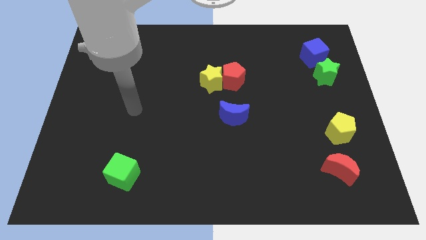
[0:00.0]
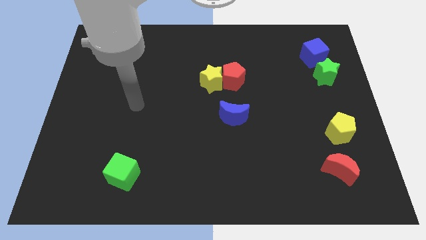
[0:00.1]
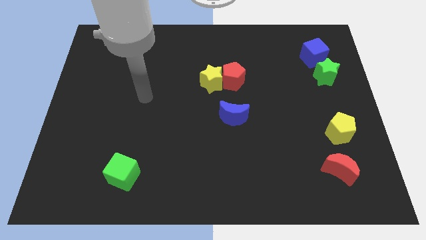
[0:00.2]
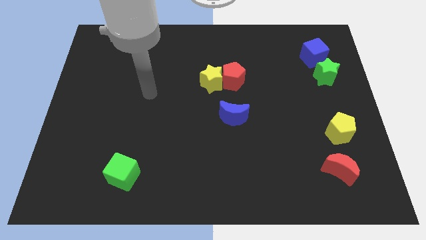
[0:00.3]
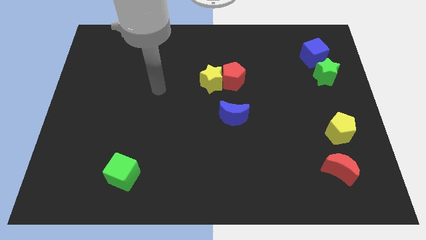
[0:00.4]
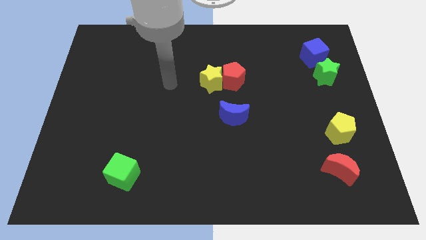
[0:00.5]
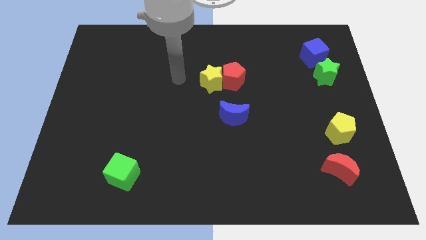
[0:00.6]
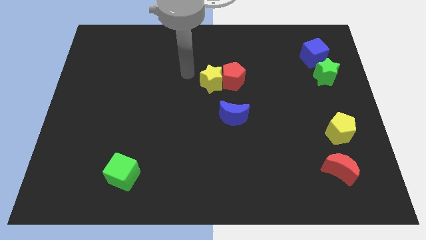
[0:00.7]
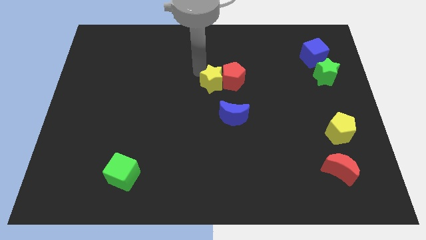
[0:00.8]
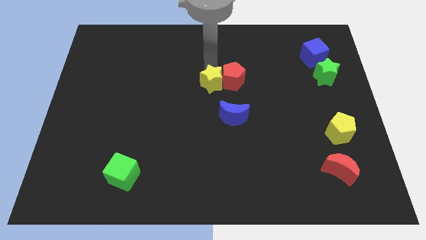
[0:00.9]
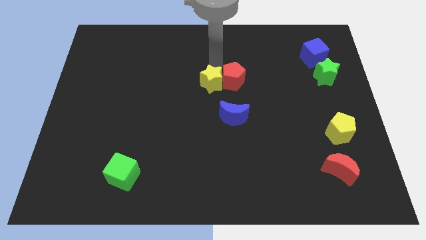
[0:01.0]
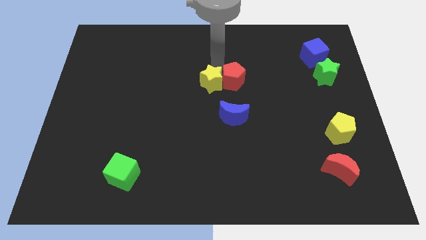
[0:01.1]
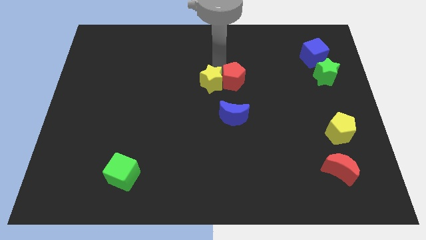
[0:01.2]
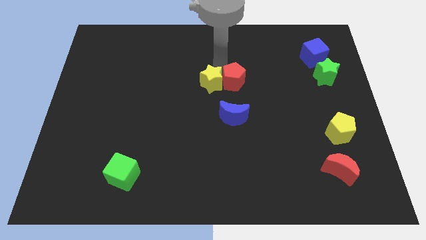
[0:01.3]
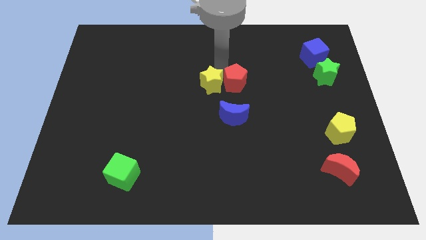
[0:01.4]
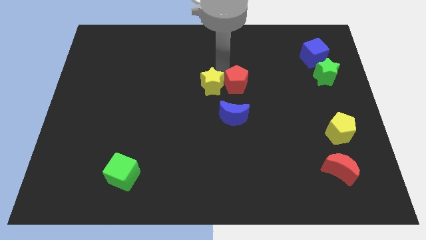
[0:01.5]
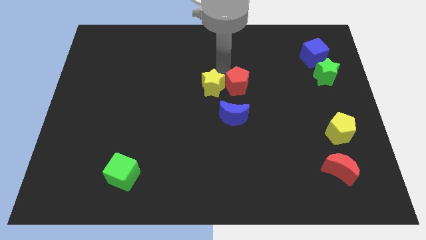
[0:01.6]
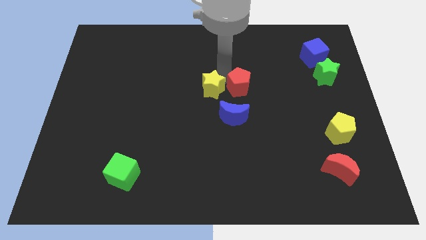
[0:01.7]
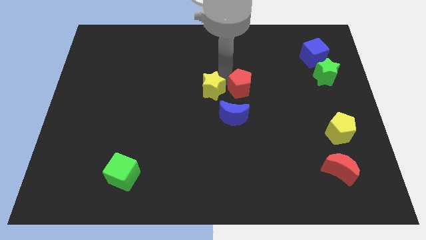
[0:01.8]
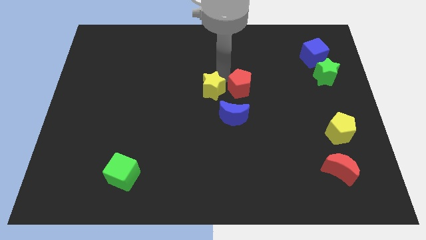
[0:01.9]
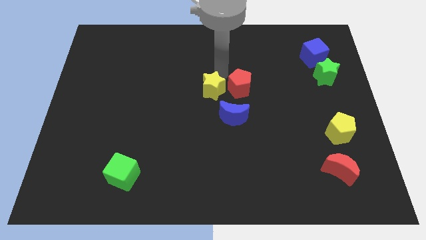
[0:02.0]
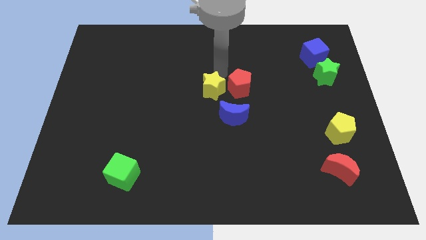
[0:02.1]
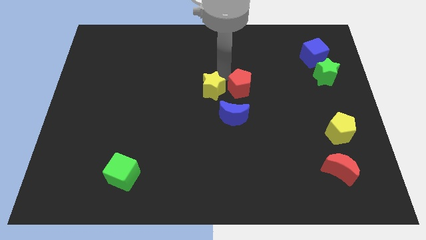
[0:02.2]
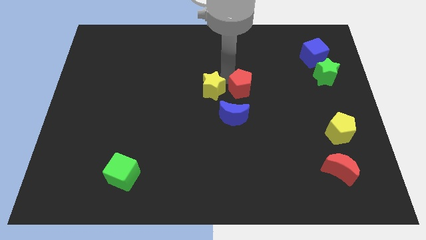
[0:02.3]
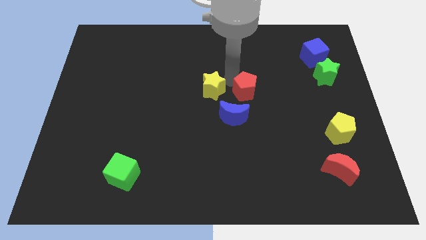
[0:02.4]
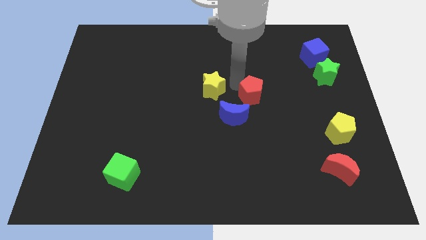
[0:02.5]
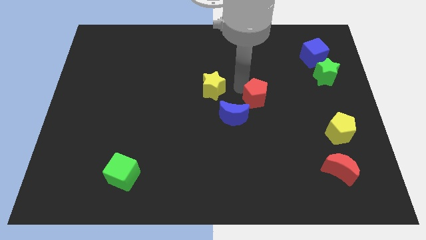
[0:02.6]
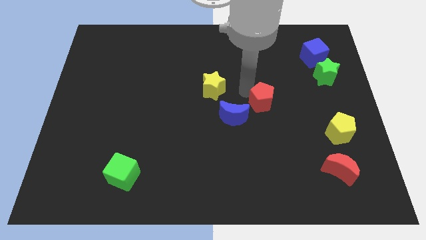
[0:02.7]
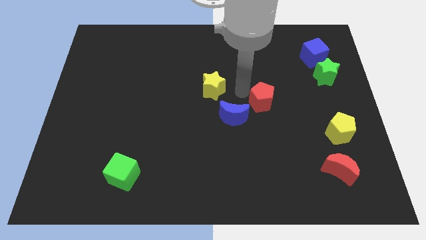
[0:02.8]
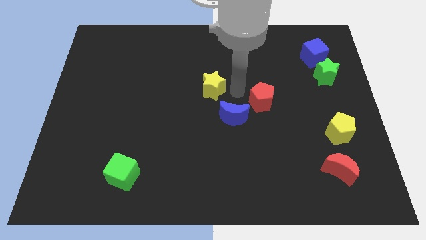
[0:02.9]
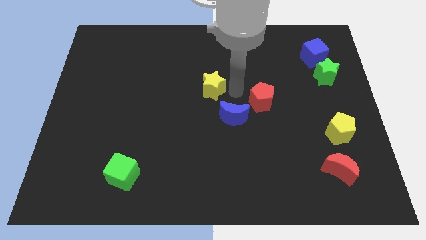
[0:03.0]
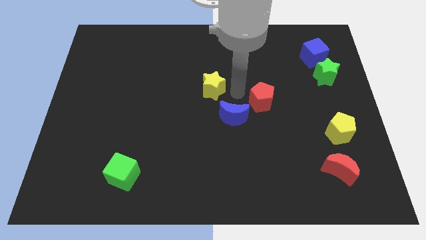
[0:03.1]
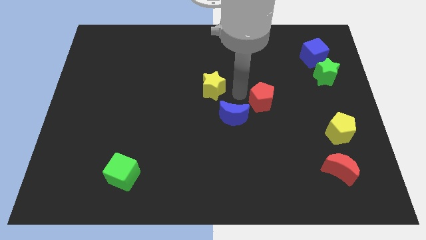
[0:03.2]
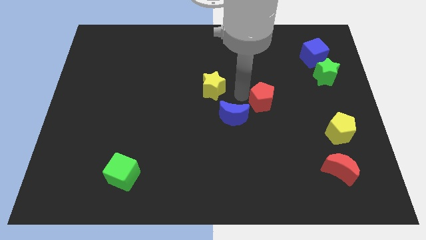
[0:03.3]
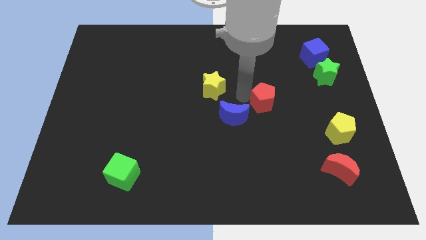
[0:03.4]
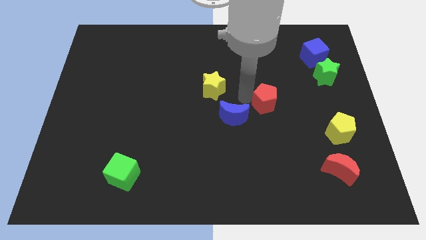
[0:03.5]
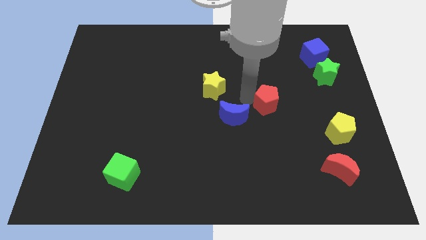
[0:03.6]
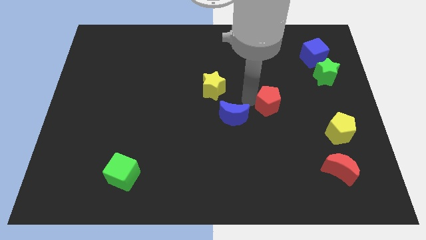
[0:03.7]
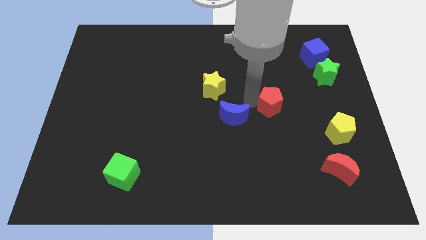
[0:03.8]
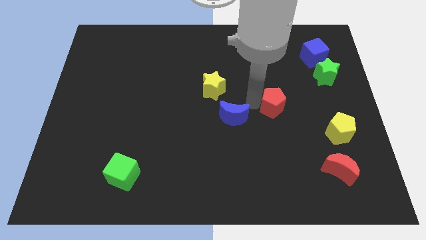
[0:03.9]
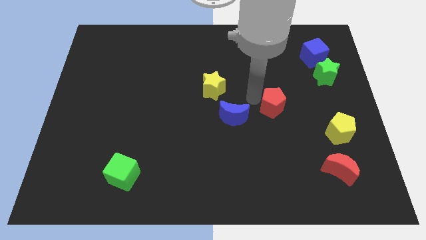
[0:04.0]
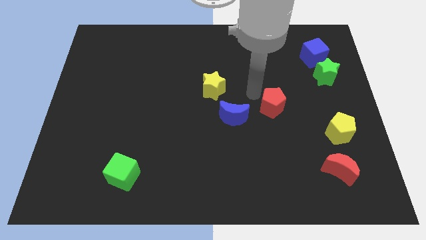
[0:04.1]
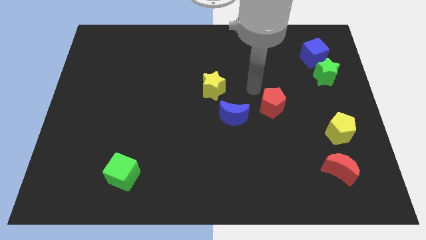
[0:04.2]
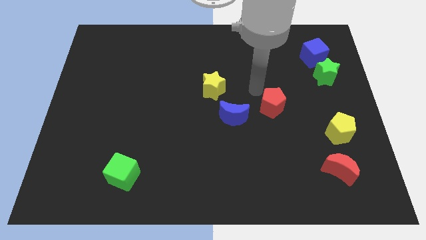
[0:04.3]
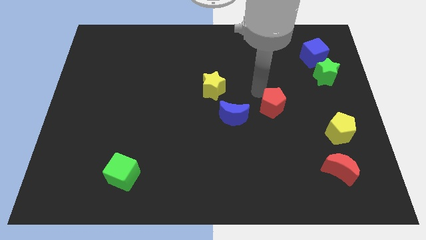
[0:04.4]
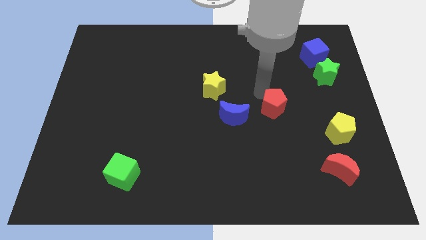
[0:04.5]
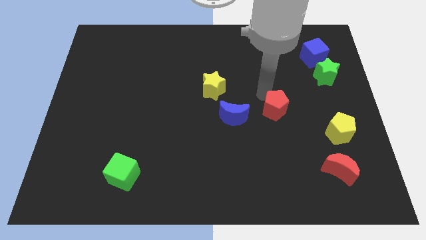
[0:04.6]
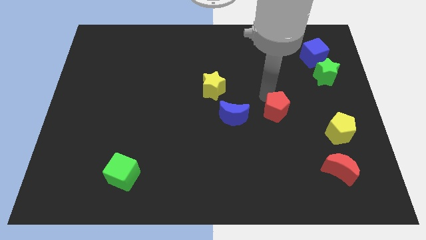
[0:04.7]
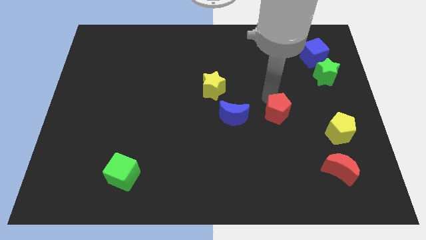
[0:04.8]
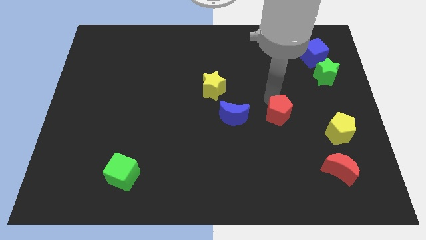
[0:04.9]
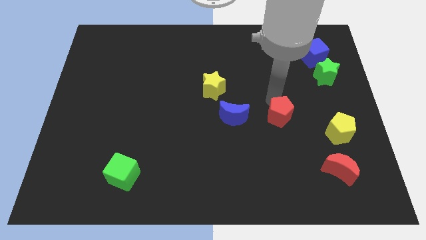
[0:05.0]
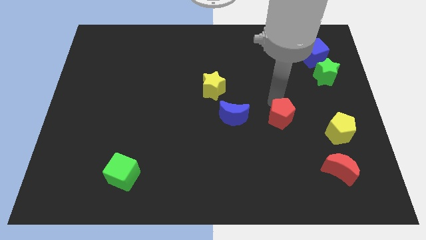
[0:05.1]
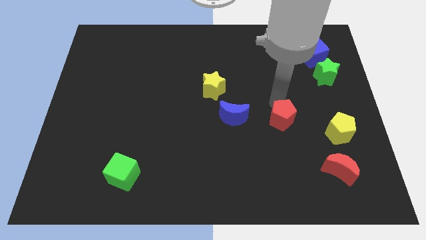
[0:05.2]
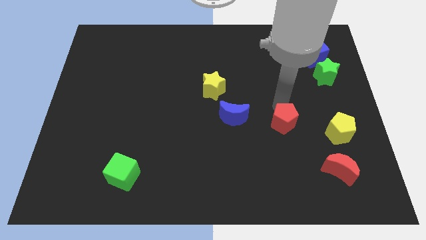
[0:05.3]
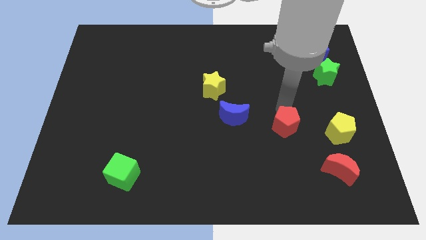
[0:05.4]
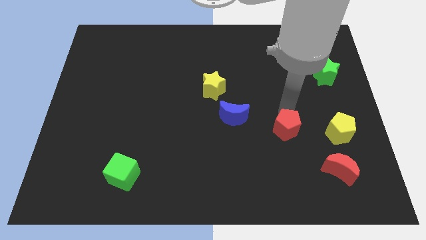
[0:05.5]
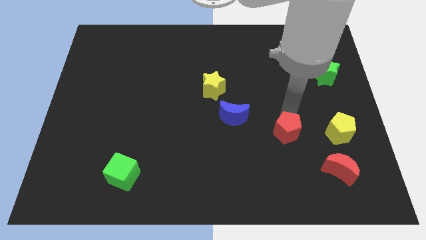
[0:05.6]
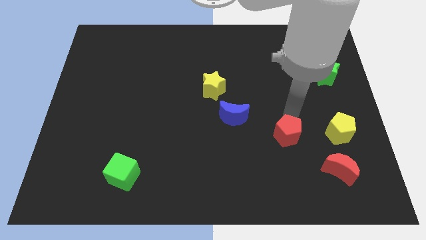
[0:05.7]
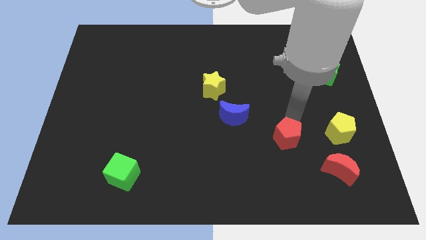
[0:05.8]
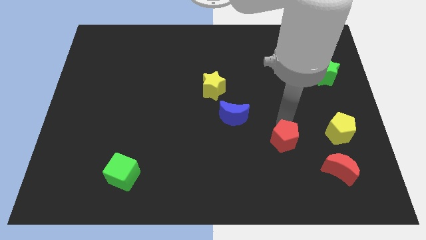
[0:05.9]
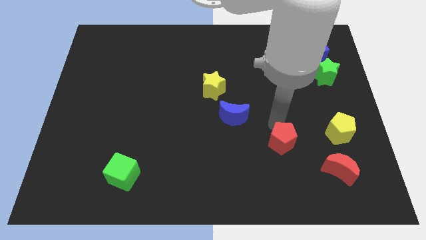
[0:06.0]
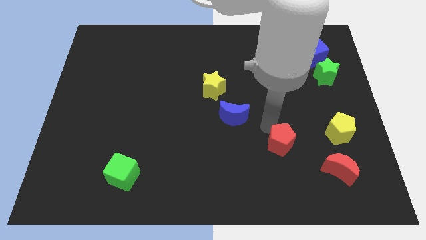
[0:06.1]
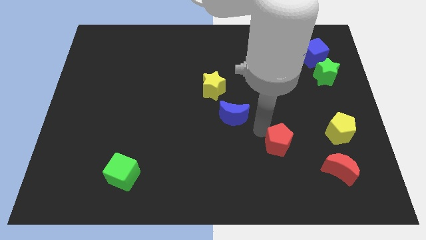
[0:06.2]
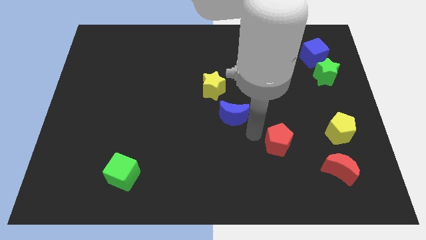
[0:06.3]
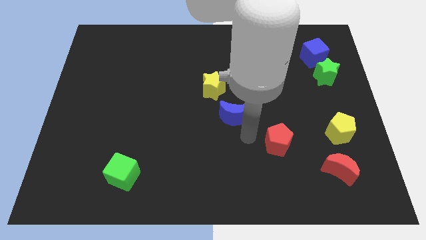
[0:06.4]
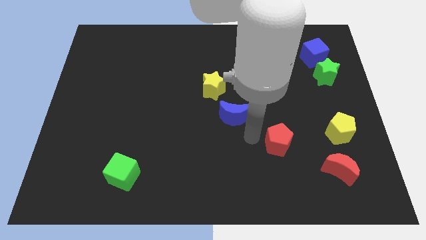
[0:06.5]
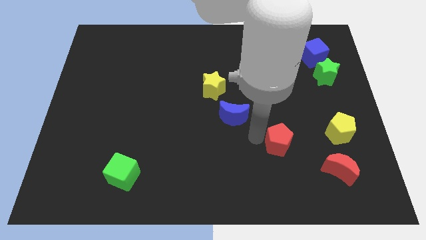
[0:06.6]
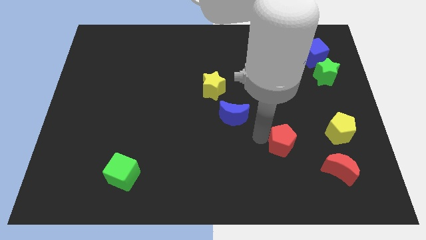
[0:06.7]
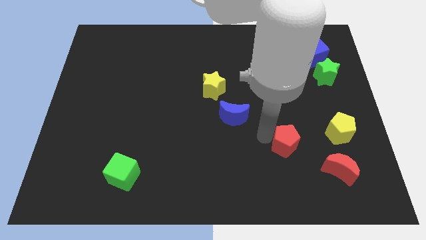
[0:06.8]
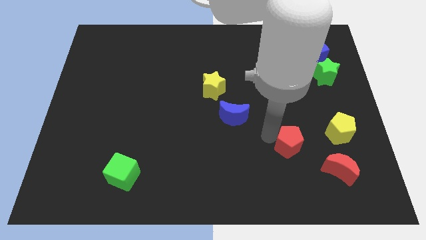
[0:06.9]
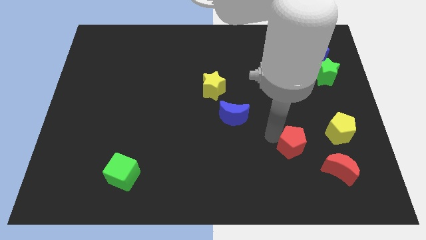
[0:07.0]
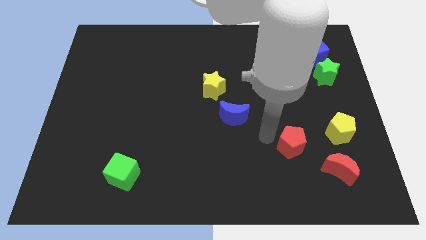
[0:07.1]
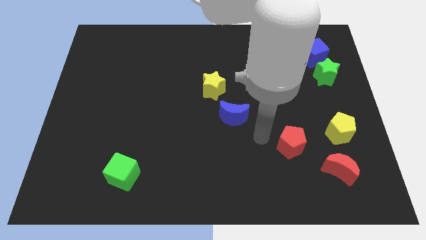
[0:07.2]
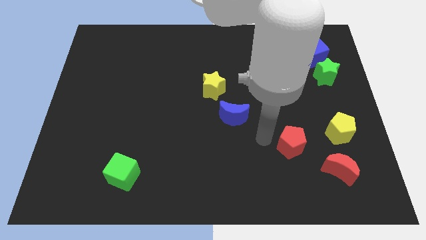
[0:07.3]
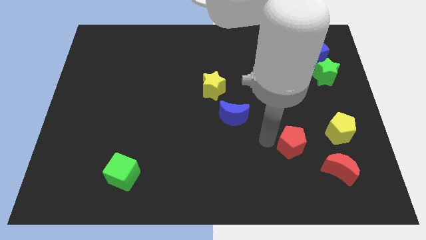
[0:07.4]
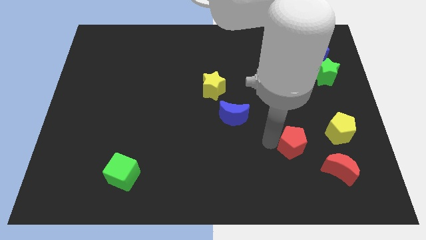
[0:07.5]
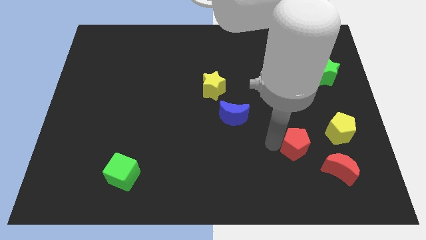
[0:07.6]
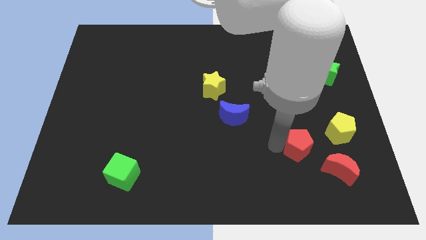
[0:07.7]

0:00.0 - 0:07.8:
put the red pentagon diagonally down and to the left of the yellow pentagon
